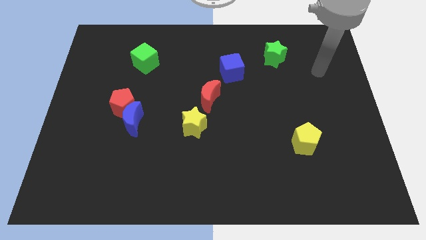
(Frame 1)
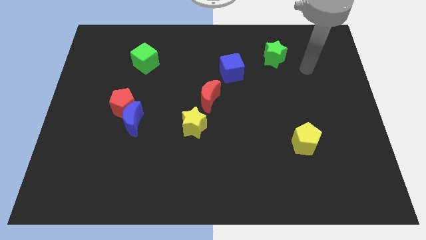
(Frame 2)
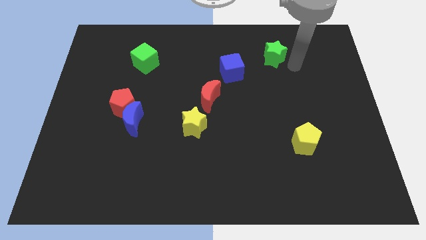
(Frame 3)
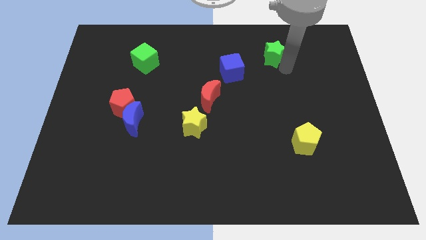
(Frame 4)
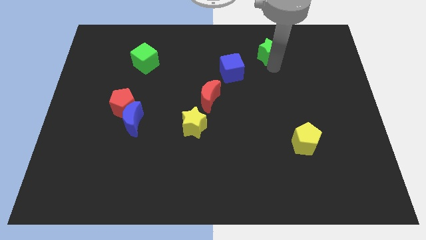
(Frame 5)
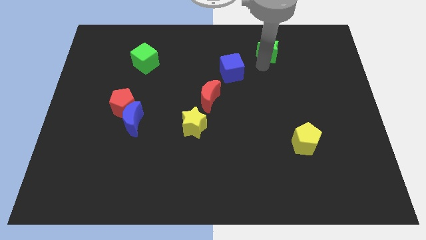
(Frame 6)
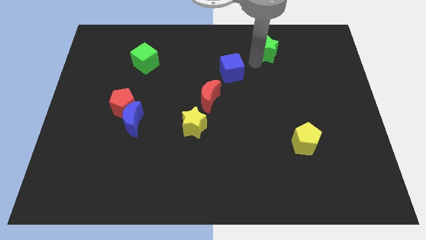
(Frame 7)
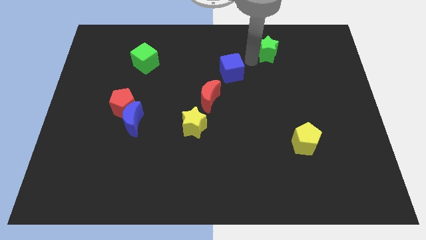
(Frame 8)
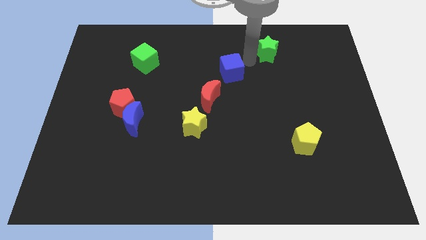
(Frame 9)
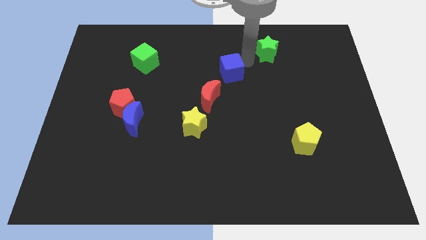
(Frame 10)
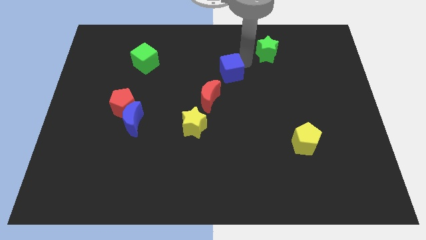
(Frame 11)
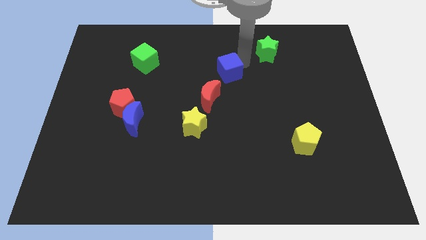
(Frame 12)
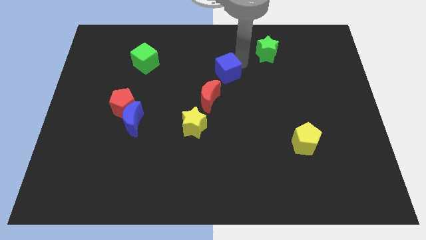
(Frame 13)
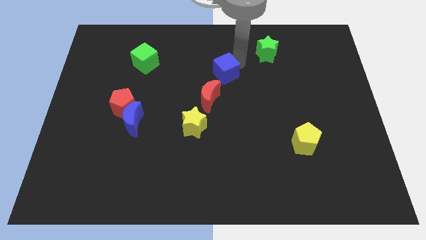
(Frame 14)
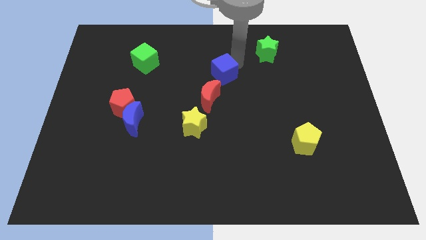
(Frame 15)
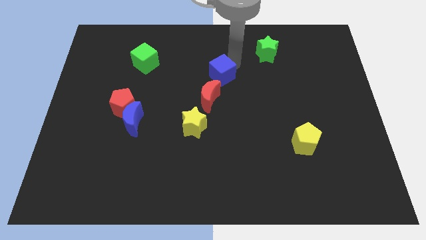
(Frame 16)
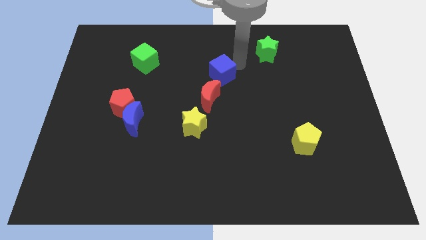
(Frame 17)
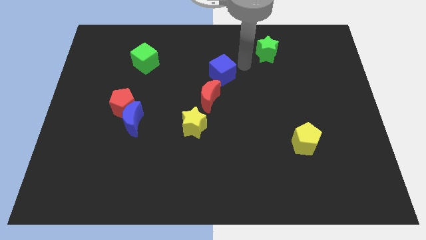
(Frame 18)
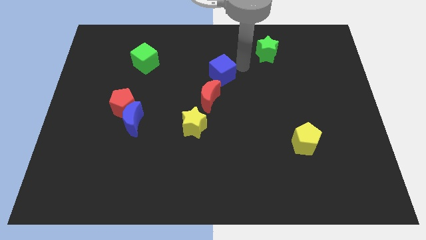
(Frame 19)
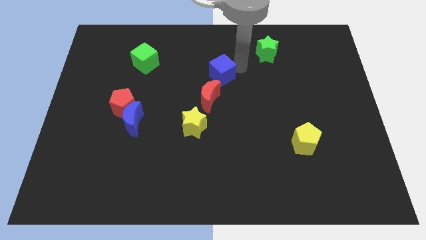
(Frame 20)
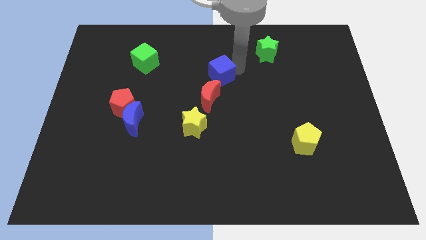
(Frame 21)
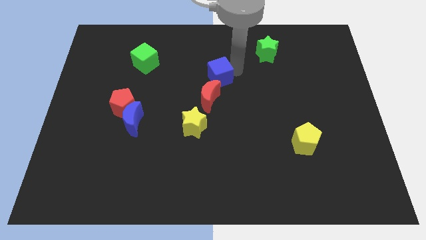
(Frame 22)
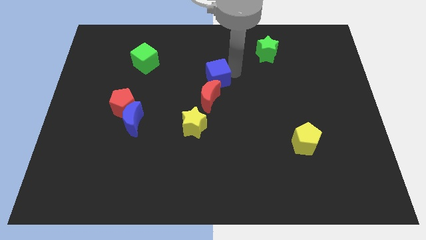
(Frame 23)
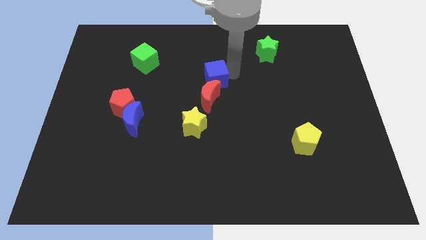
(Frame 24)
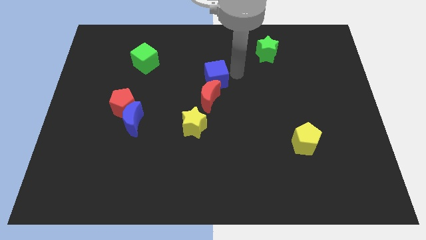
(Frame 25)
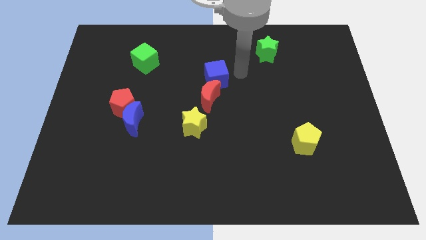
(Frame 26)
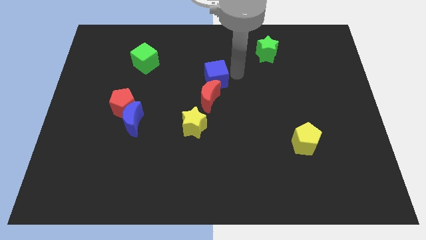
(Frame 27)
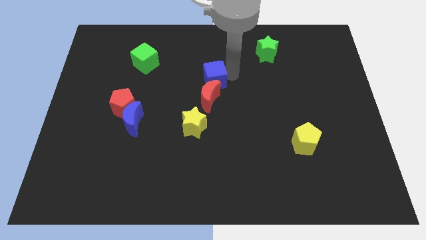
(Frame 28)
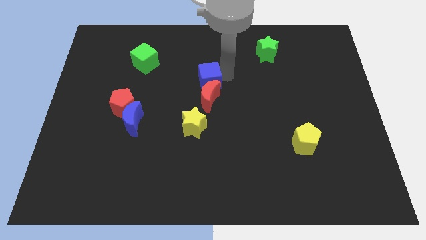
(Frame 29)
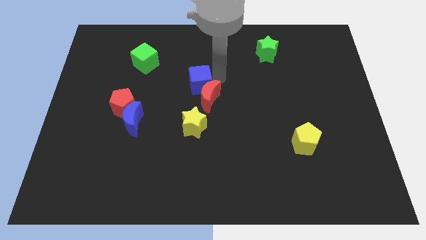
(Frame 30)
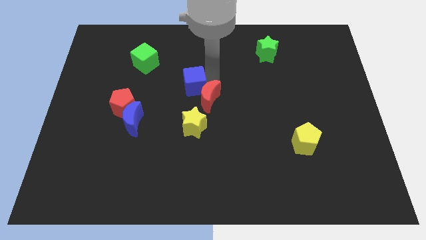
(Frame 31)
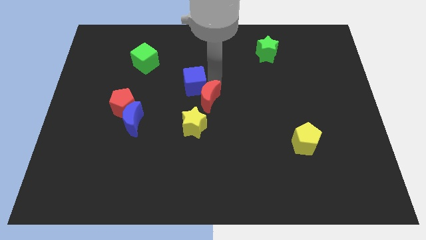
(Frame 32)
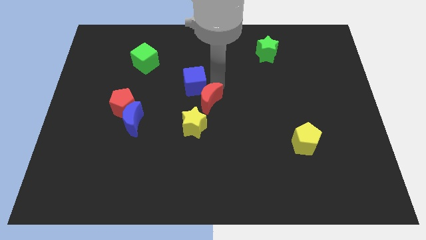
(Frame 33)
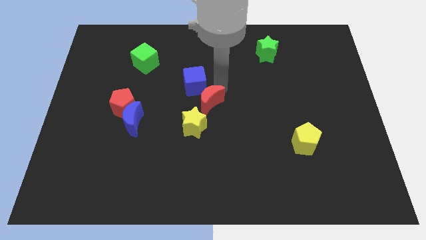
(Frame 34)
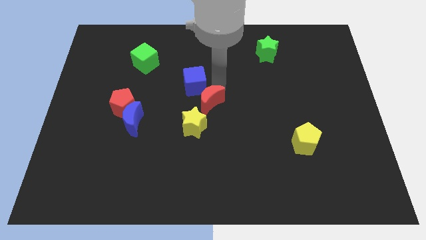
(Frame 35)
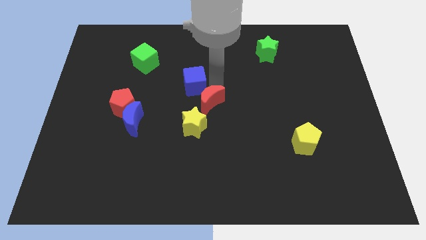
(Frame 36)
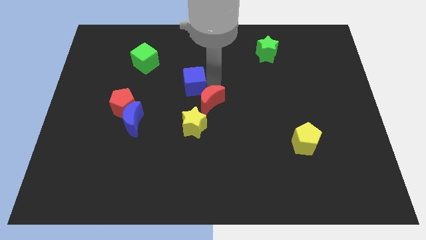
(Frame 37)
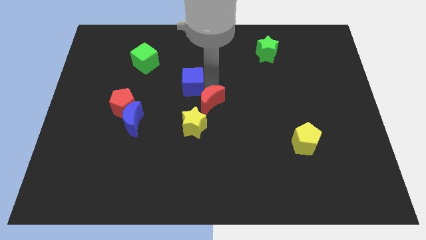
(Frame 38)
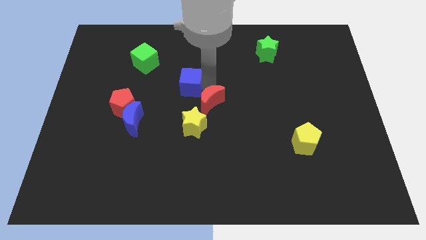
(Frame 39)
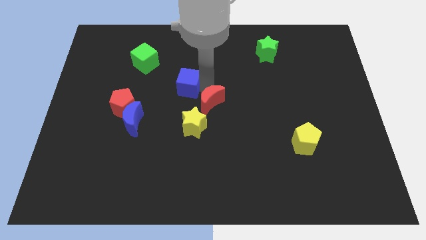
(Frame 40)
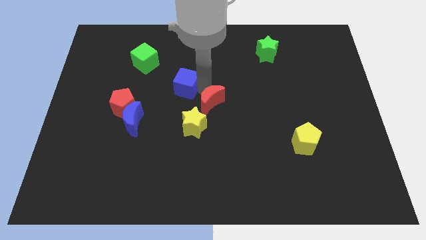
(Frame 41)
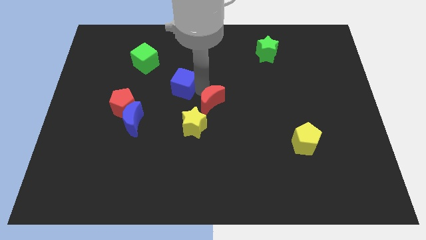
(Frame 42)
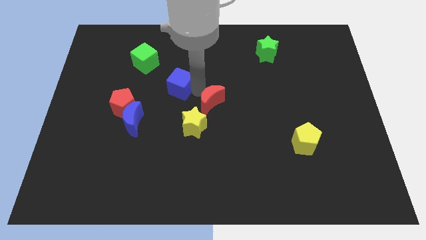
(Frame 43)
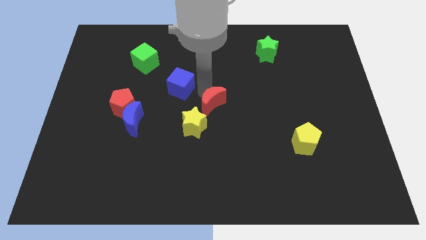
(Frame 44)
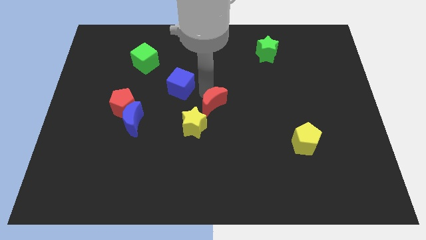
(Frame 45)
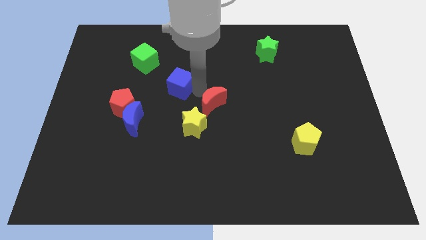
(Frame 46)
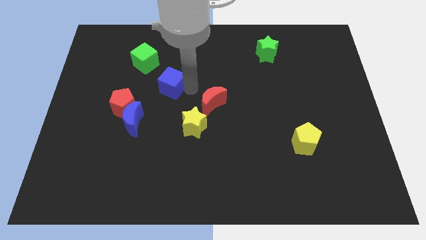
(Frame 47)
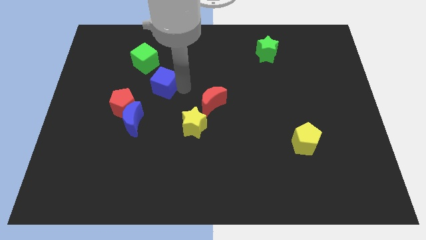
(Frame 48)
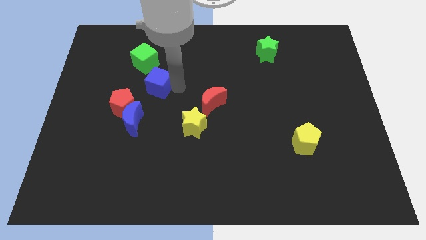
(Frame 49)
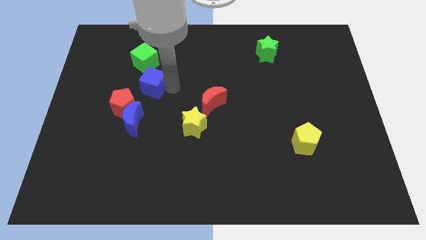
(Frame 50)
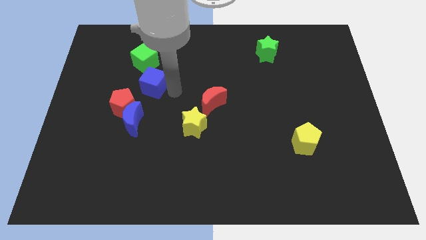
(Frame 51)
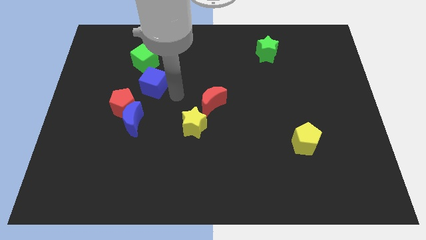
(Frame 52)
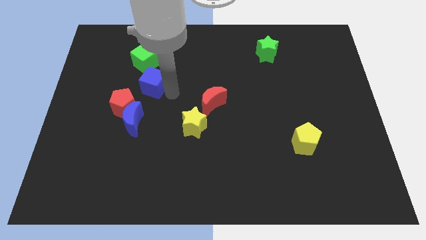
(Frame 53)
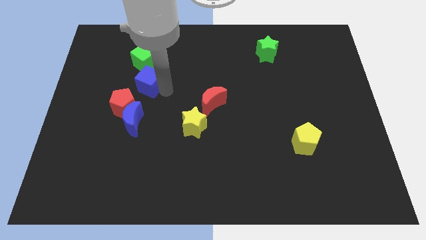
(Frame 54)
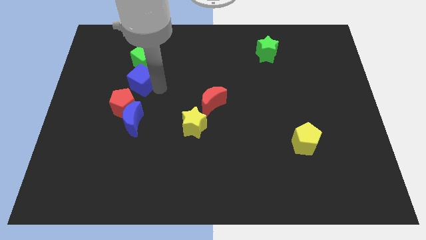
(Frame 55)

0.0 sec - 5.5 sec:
push the blue cube to the top of the red pentagon

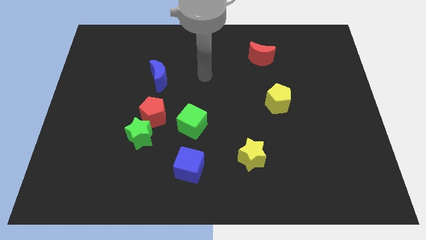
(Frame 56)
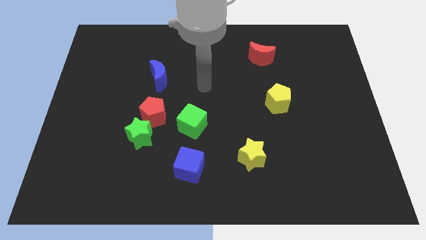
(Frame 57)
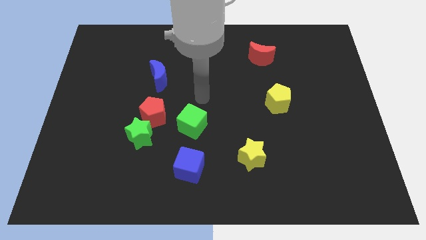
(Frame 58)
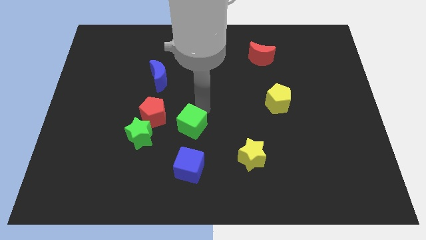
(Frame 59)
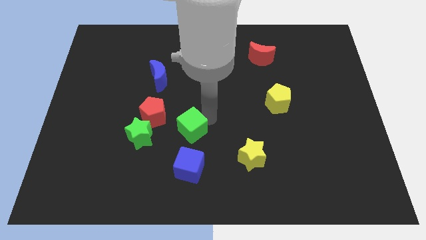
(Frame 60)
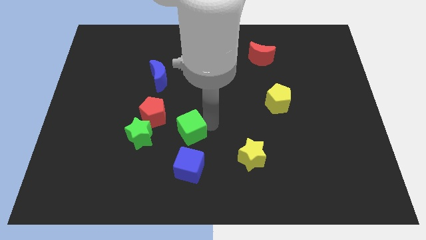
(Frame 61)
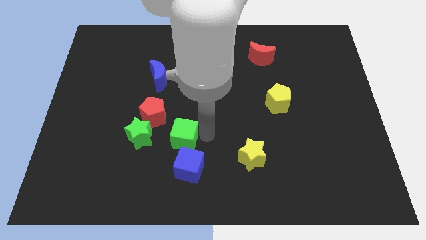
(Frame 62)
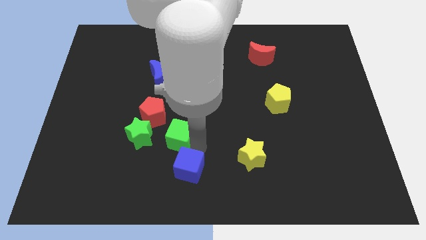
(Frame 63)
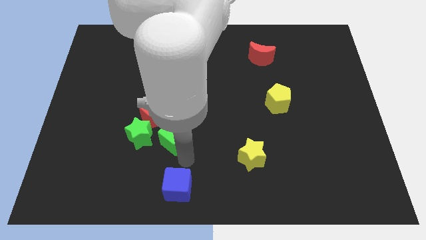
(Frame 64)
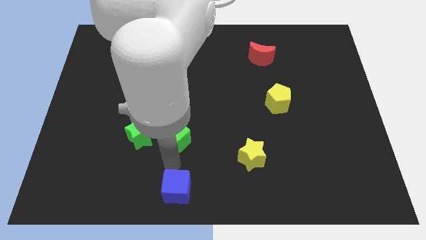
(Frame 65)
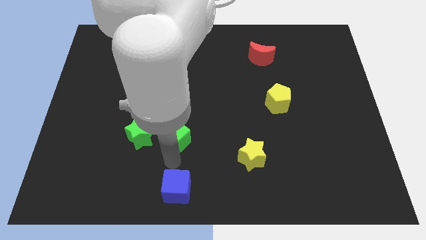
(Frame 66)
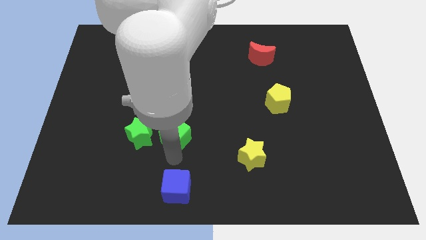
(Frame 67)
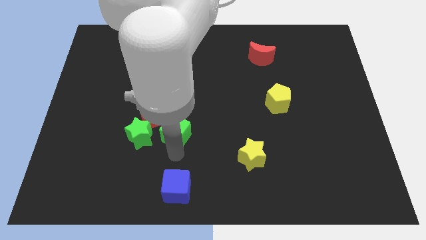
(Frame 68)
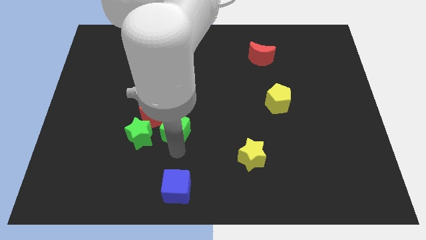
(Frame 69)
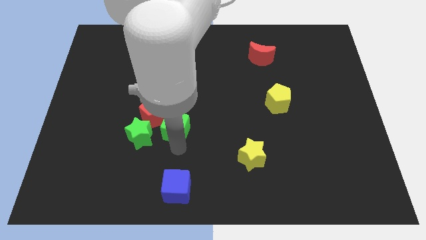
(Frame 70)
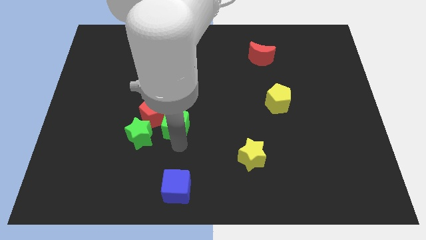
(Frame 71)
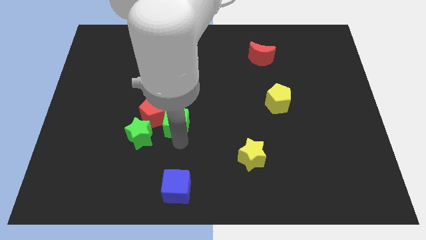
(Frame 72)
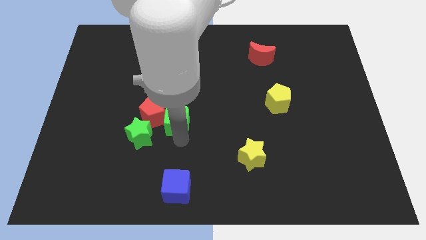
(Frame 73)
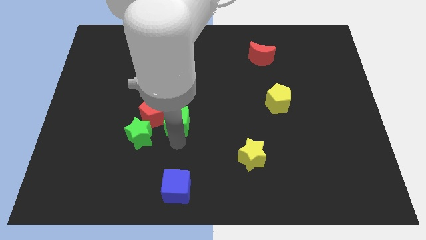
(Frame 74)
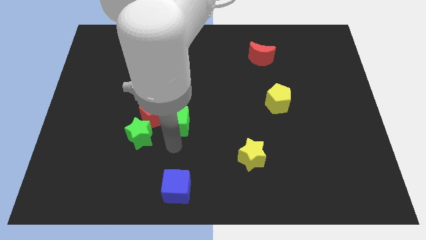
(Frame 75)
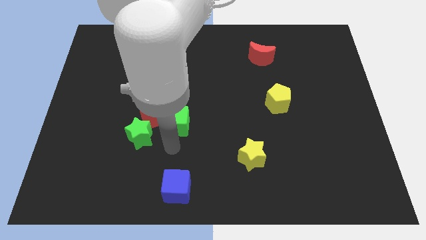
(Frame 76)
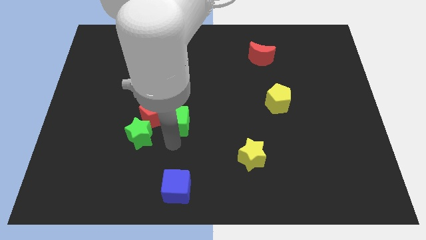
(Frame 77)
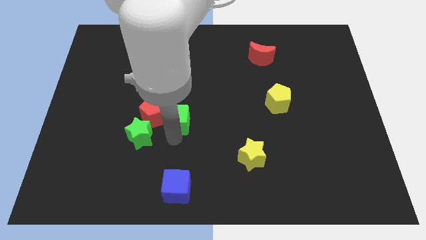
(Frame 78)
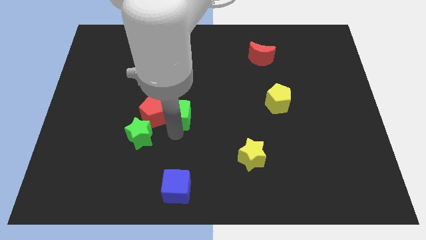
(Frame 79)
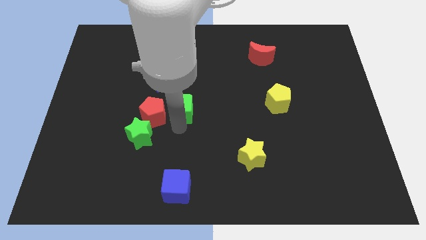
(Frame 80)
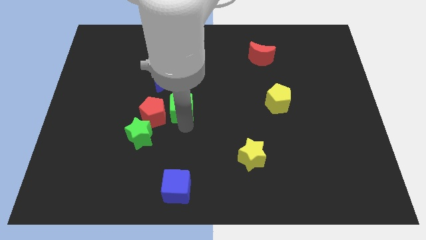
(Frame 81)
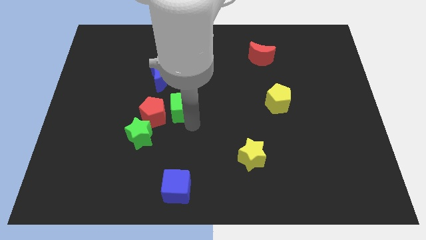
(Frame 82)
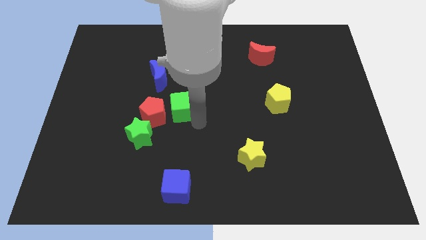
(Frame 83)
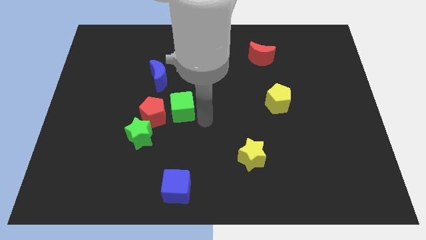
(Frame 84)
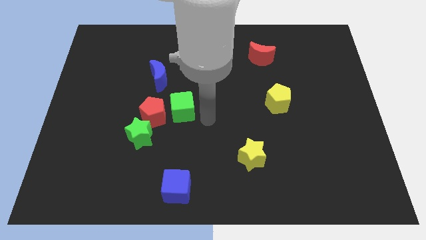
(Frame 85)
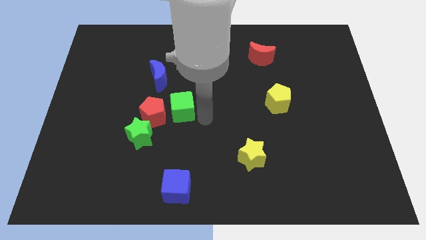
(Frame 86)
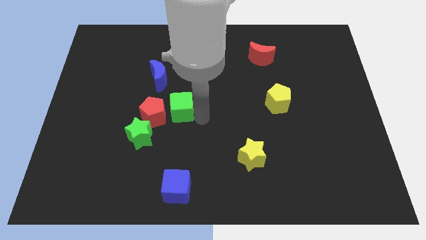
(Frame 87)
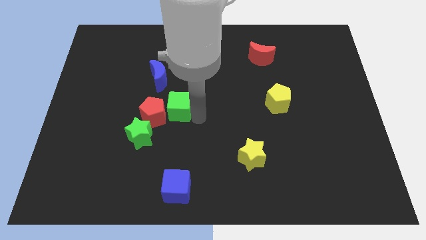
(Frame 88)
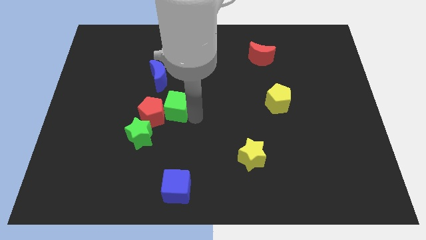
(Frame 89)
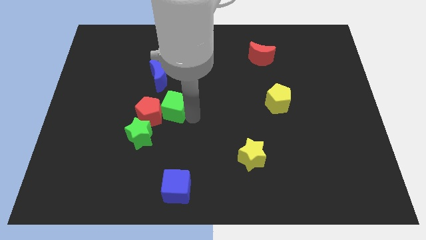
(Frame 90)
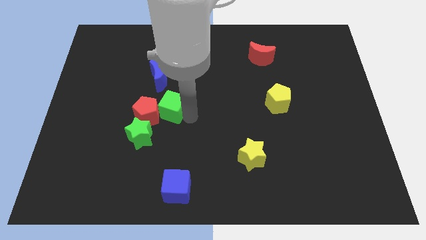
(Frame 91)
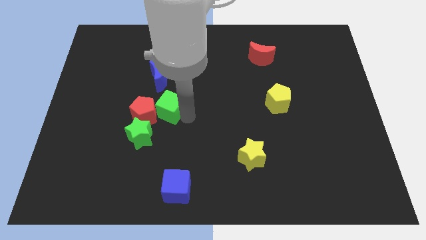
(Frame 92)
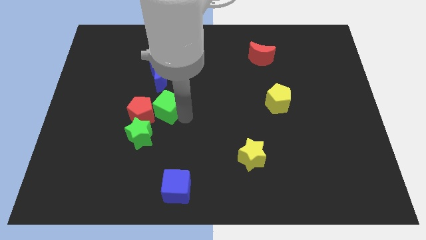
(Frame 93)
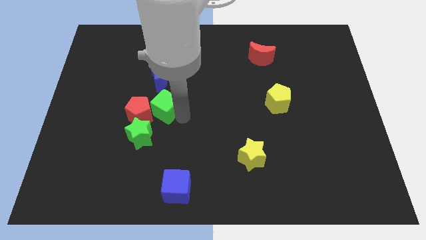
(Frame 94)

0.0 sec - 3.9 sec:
move the green cube to the top side of the green star
